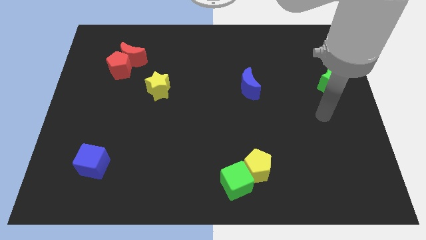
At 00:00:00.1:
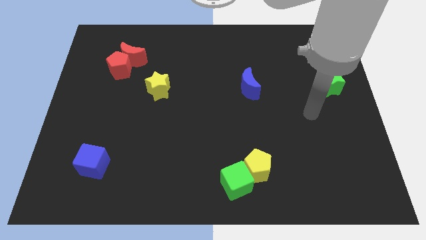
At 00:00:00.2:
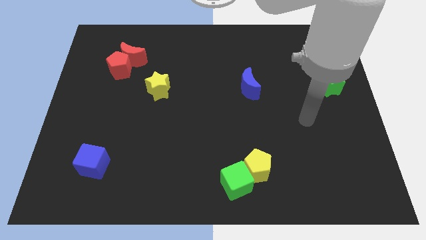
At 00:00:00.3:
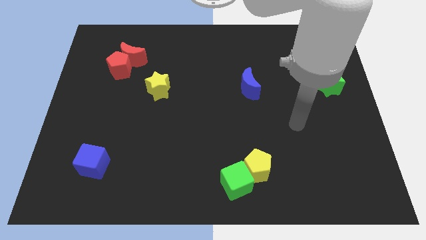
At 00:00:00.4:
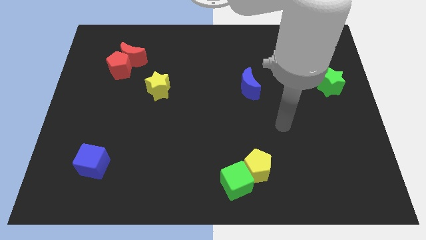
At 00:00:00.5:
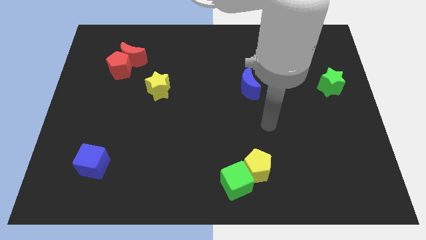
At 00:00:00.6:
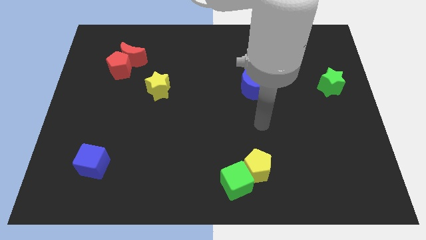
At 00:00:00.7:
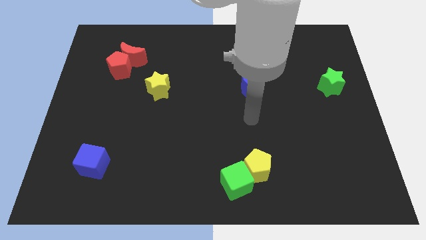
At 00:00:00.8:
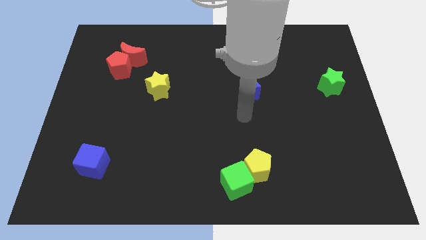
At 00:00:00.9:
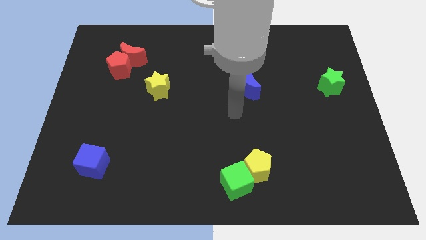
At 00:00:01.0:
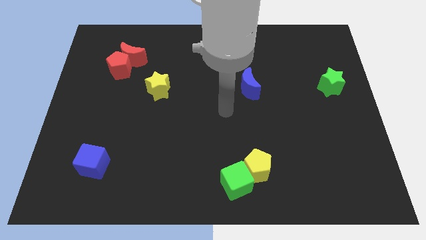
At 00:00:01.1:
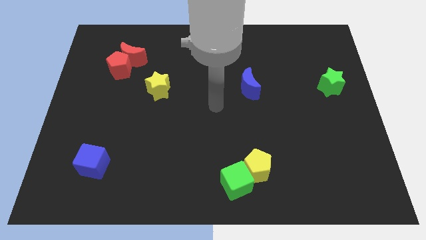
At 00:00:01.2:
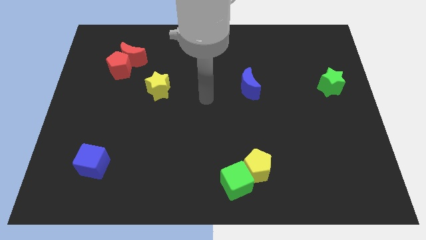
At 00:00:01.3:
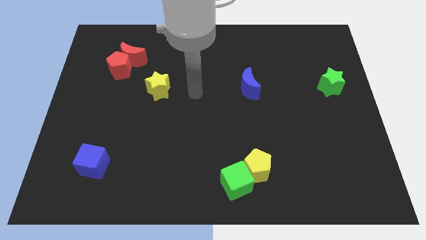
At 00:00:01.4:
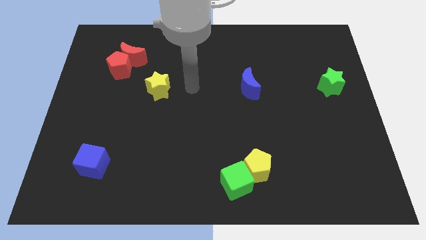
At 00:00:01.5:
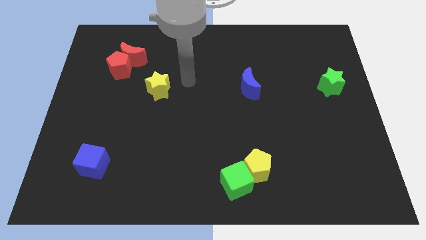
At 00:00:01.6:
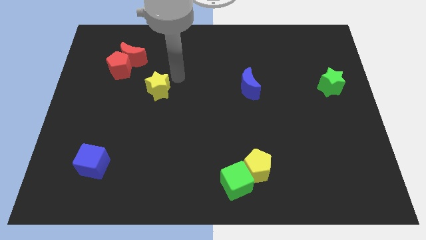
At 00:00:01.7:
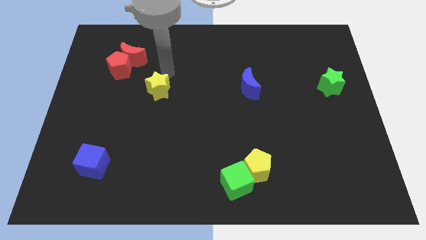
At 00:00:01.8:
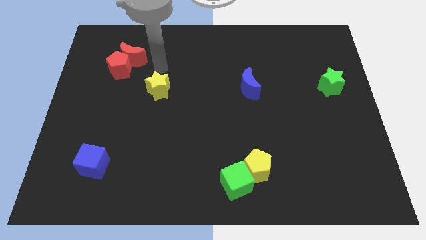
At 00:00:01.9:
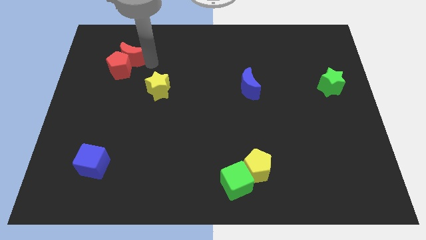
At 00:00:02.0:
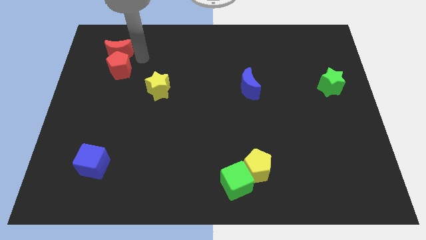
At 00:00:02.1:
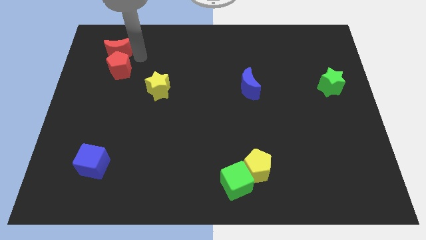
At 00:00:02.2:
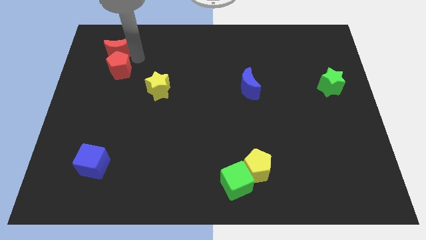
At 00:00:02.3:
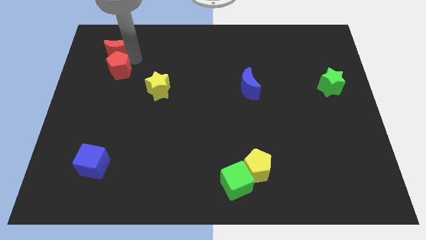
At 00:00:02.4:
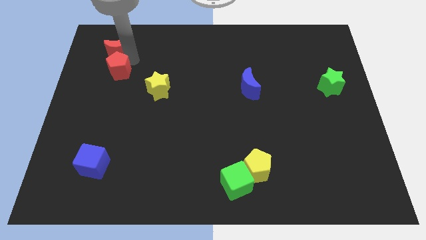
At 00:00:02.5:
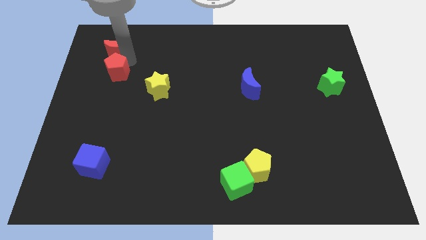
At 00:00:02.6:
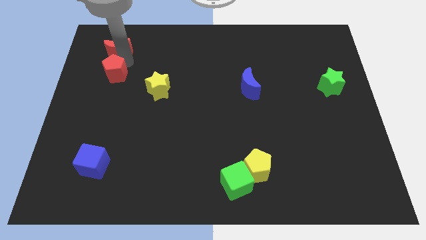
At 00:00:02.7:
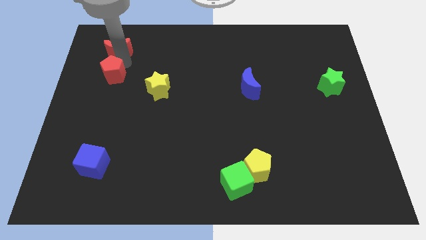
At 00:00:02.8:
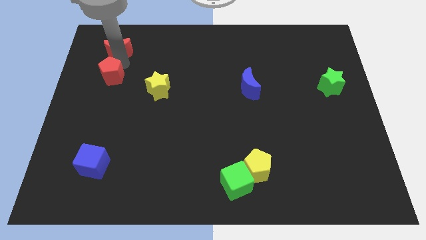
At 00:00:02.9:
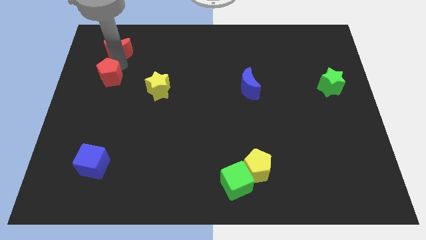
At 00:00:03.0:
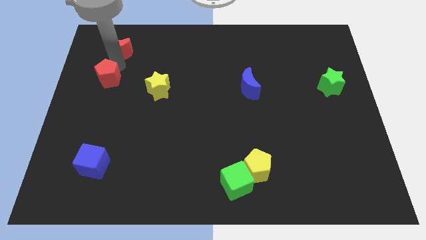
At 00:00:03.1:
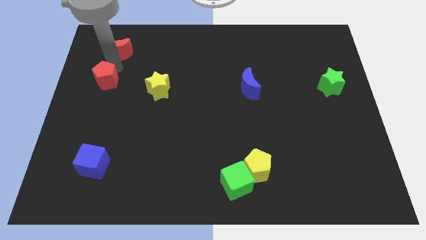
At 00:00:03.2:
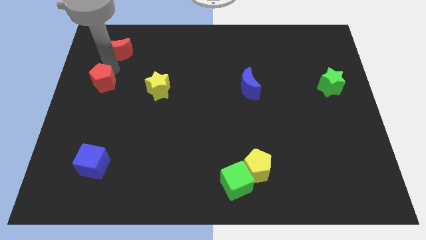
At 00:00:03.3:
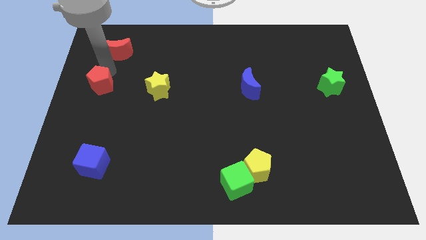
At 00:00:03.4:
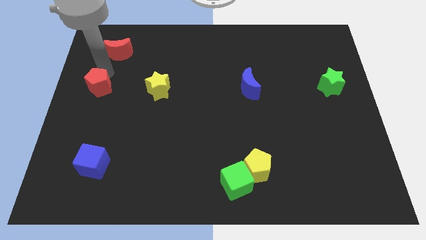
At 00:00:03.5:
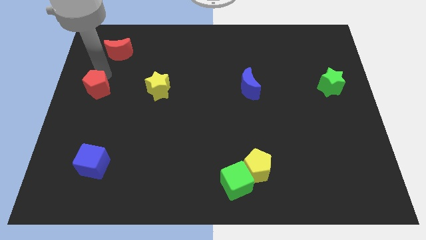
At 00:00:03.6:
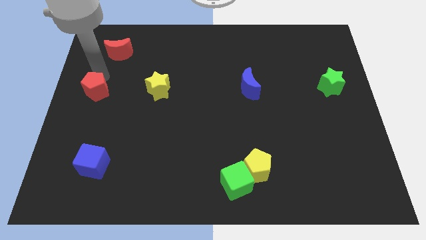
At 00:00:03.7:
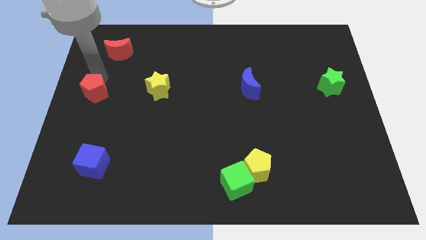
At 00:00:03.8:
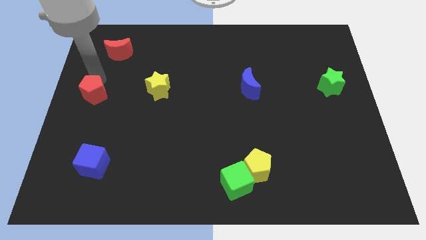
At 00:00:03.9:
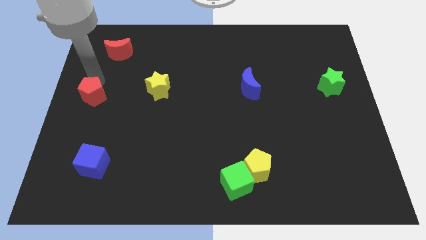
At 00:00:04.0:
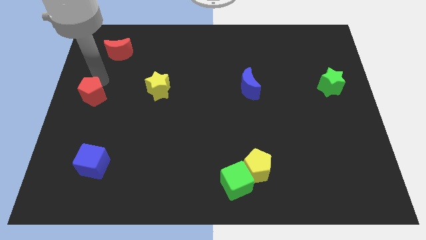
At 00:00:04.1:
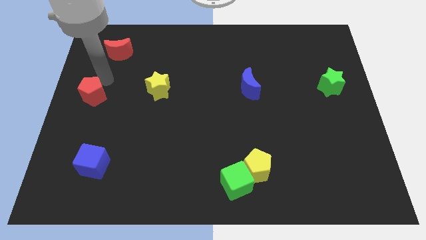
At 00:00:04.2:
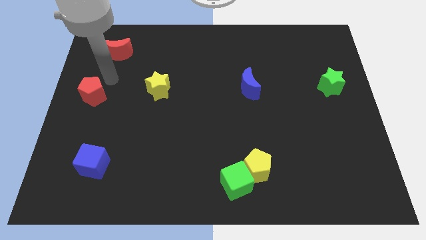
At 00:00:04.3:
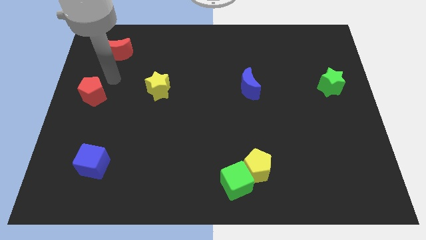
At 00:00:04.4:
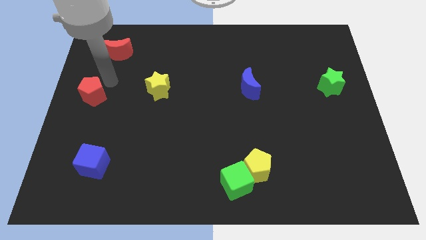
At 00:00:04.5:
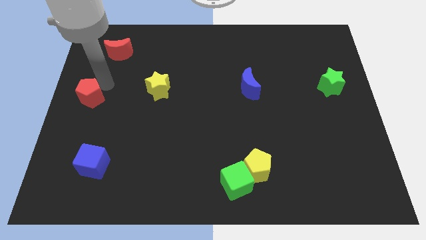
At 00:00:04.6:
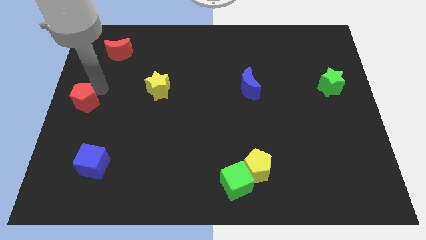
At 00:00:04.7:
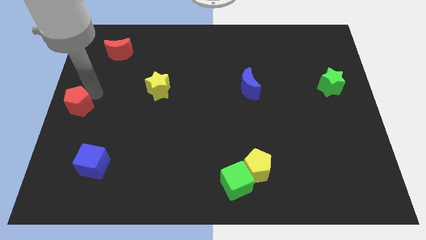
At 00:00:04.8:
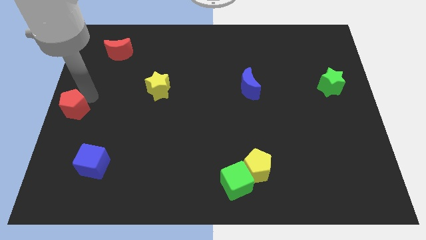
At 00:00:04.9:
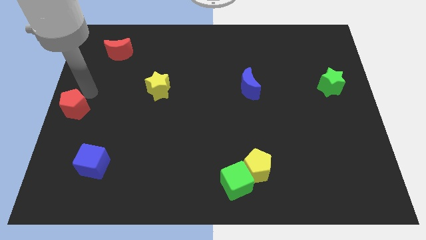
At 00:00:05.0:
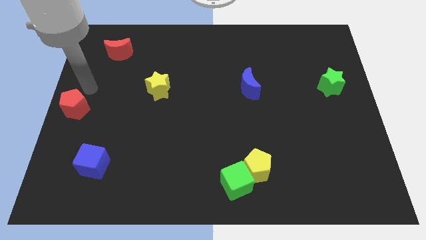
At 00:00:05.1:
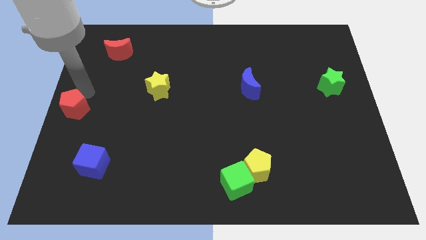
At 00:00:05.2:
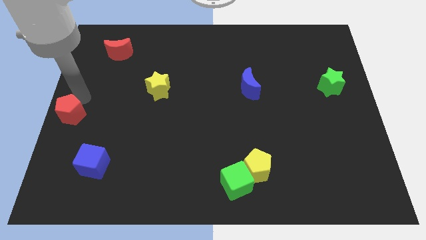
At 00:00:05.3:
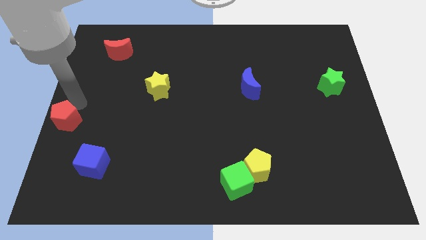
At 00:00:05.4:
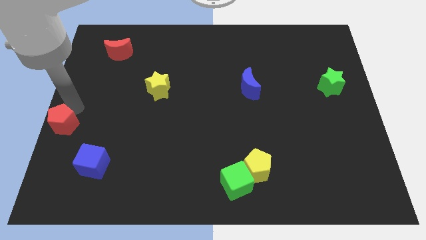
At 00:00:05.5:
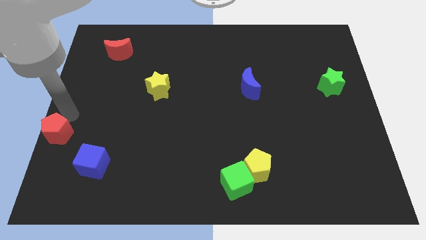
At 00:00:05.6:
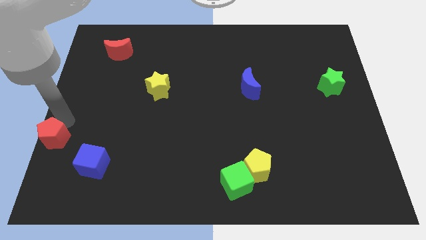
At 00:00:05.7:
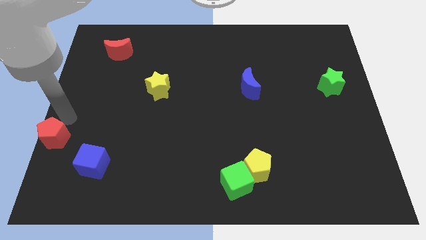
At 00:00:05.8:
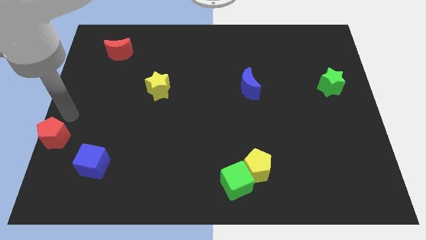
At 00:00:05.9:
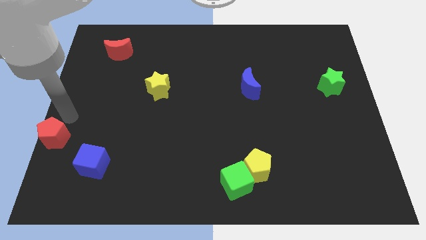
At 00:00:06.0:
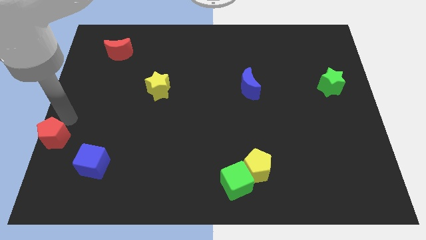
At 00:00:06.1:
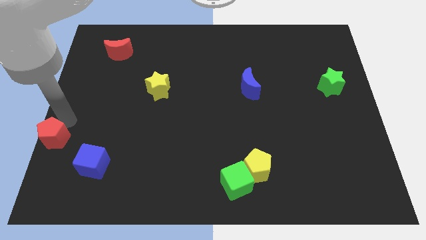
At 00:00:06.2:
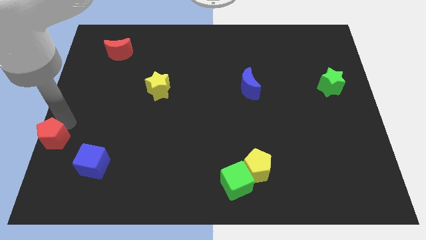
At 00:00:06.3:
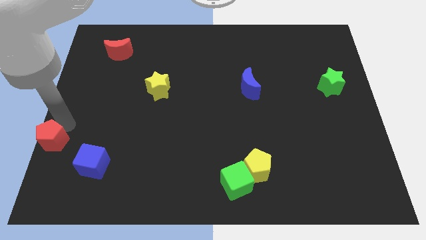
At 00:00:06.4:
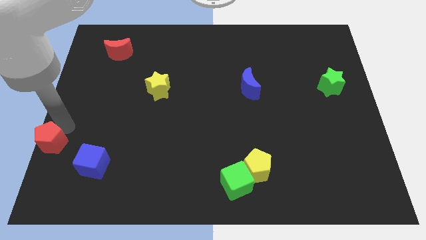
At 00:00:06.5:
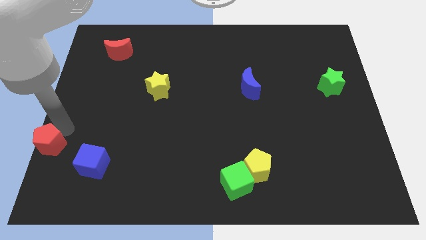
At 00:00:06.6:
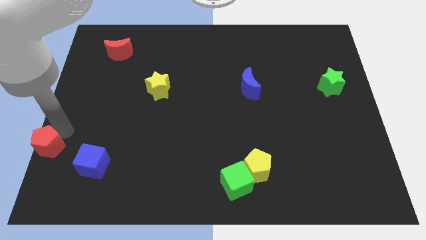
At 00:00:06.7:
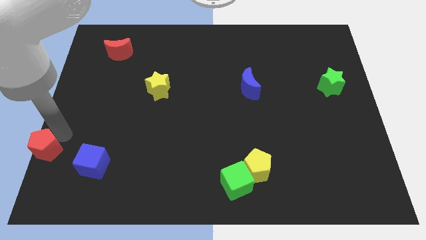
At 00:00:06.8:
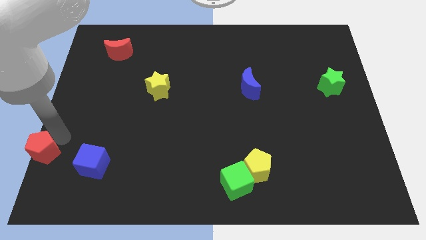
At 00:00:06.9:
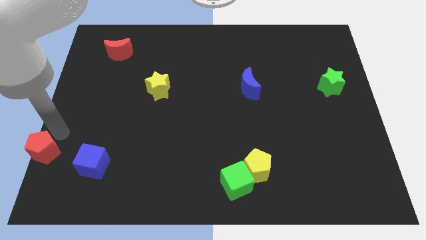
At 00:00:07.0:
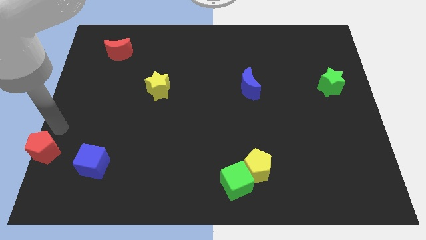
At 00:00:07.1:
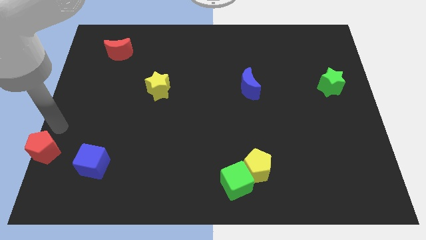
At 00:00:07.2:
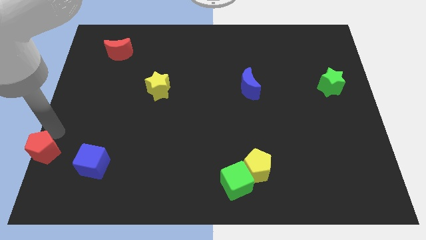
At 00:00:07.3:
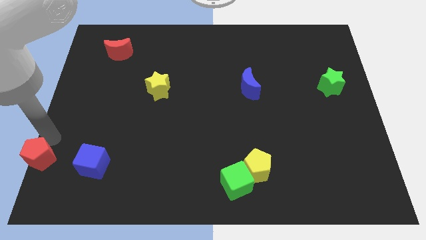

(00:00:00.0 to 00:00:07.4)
put the red pentagon to the bottom left of the board
